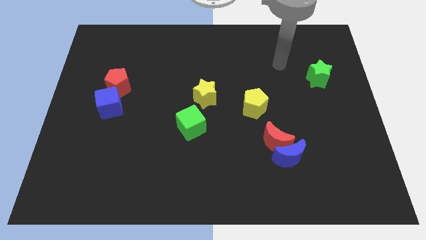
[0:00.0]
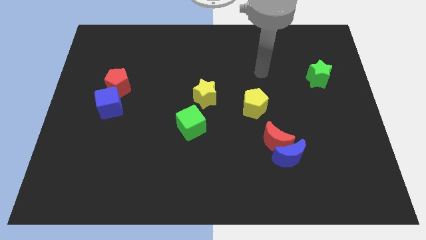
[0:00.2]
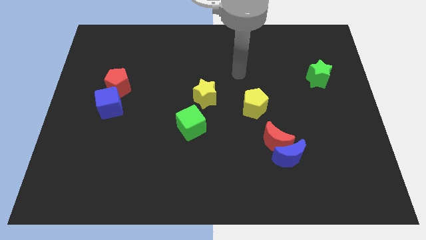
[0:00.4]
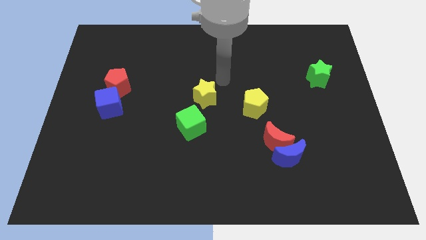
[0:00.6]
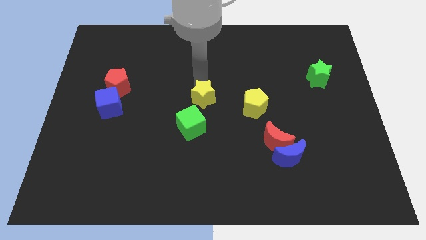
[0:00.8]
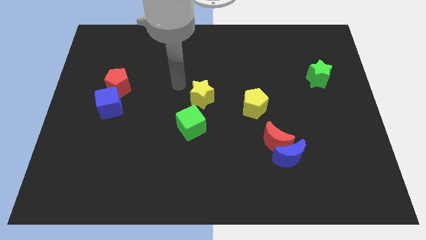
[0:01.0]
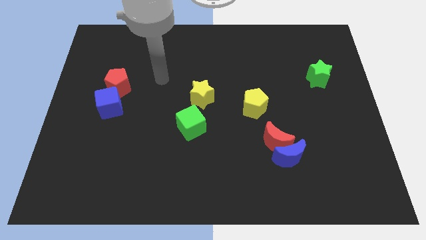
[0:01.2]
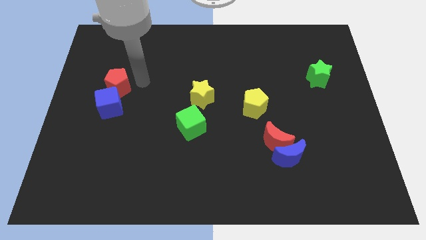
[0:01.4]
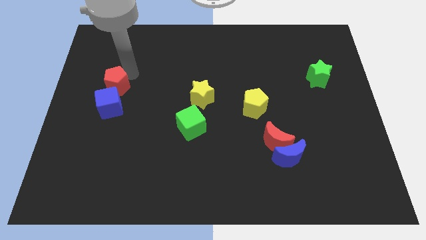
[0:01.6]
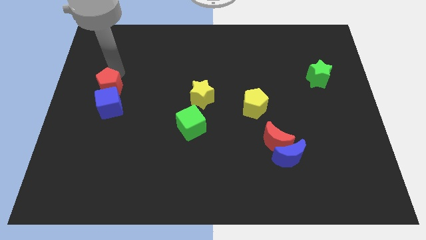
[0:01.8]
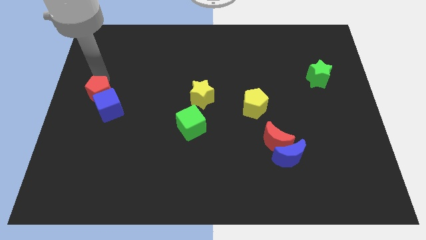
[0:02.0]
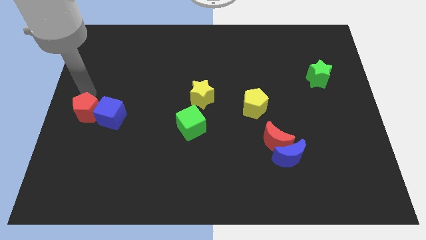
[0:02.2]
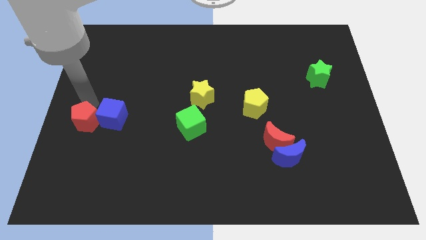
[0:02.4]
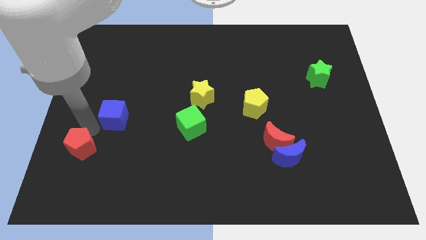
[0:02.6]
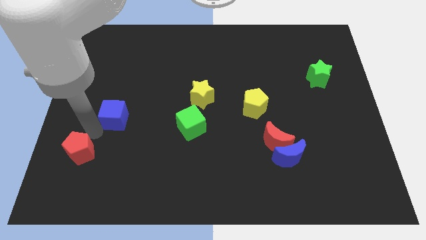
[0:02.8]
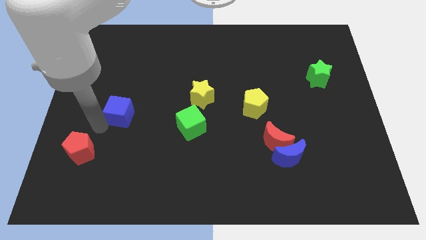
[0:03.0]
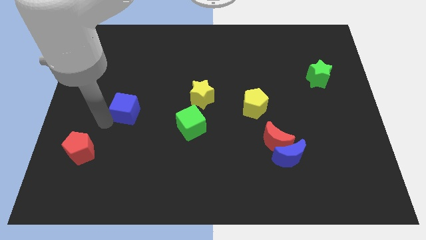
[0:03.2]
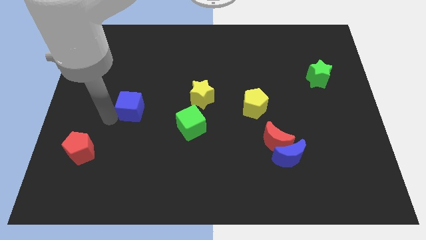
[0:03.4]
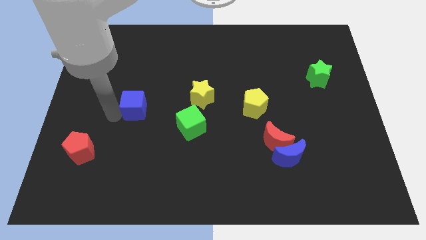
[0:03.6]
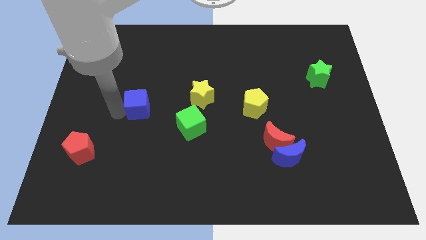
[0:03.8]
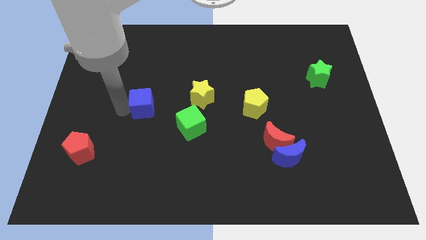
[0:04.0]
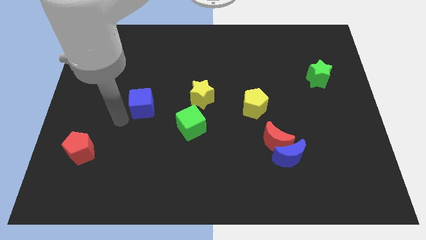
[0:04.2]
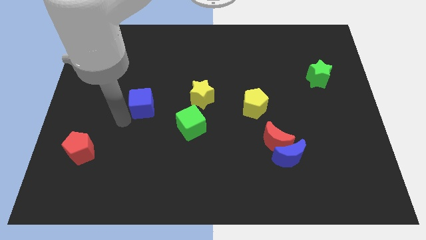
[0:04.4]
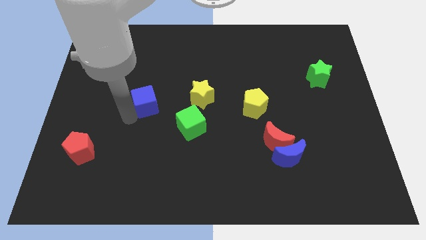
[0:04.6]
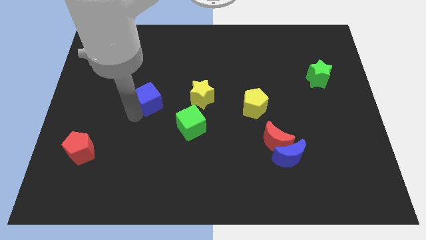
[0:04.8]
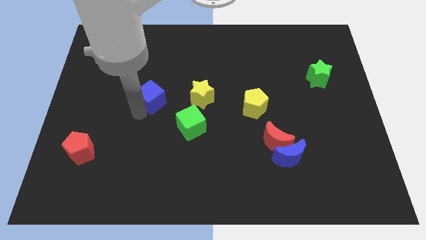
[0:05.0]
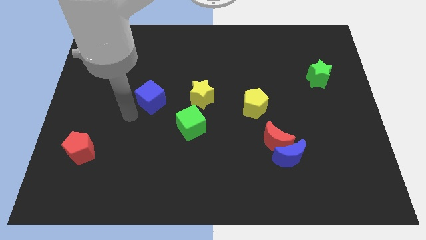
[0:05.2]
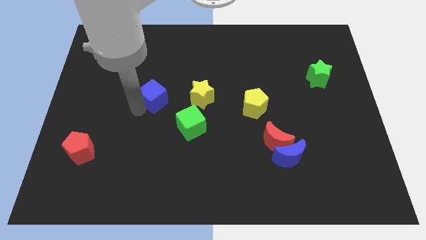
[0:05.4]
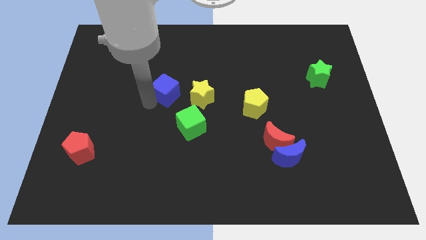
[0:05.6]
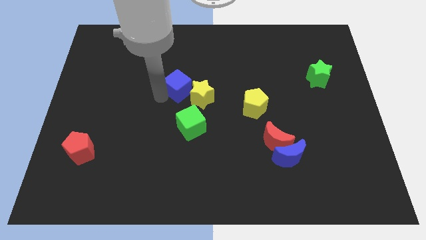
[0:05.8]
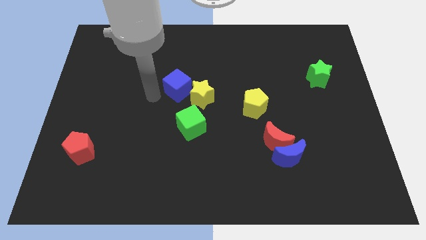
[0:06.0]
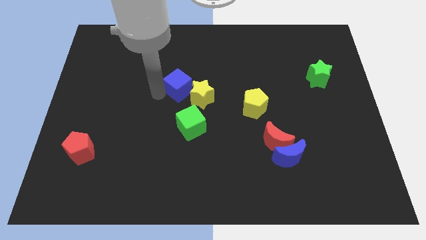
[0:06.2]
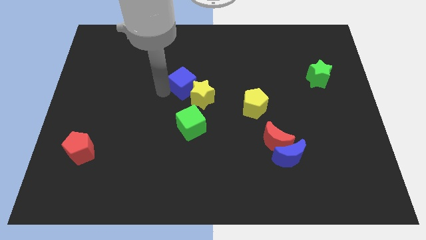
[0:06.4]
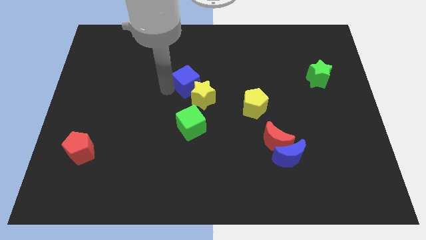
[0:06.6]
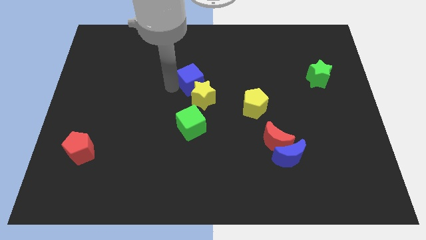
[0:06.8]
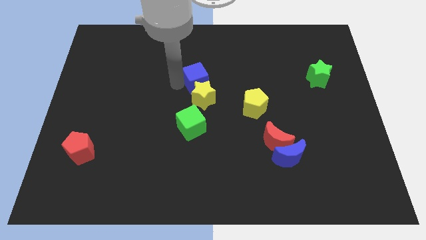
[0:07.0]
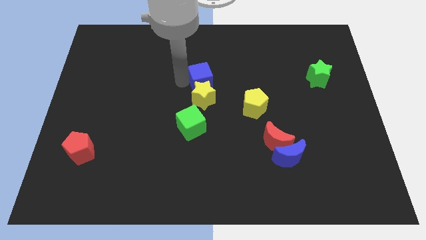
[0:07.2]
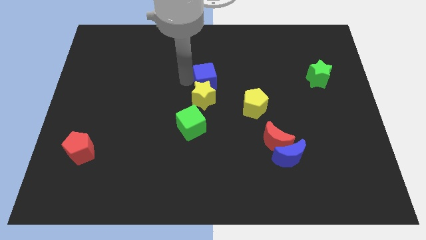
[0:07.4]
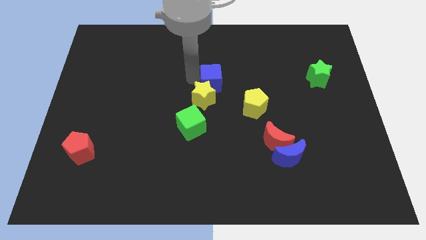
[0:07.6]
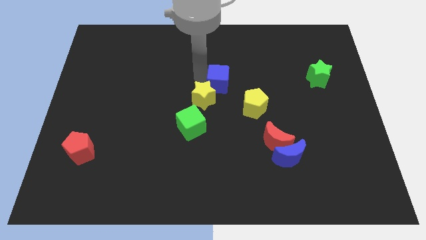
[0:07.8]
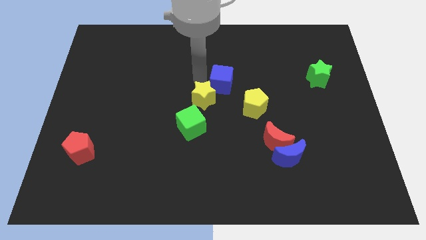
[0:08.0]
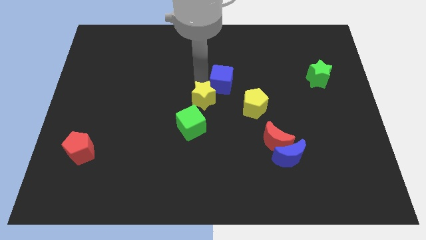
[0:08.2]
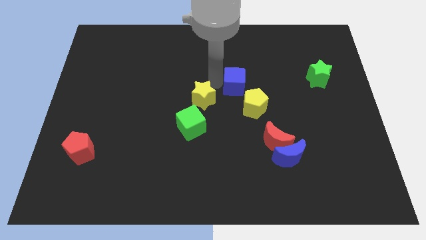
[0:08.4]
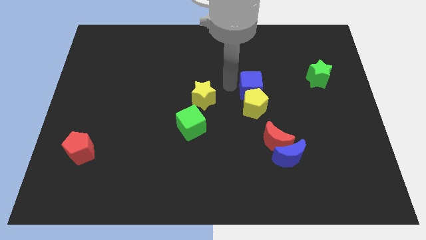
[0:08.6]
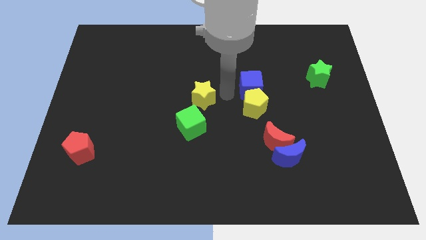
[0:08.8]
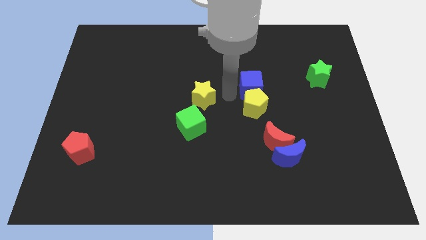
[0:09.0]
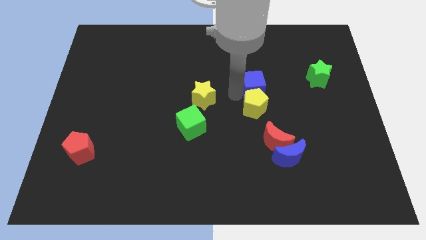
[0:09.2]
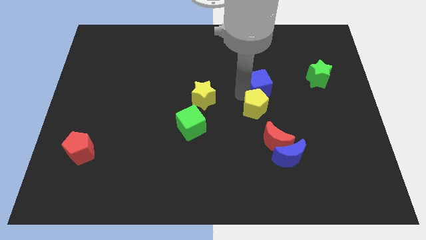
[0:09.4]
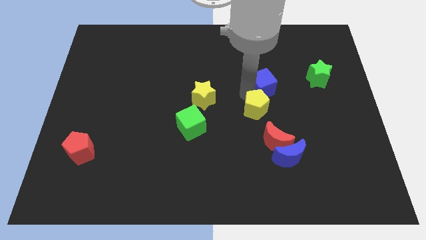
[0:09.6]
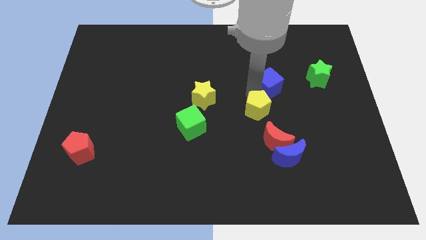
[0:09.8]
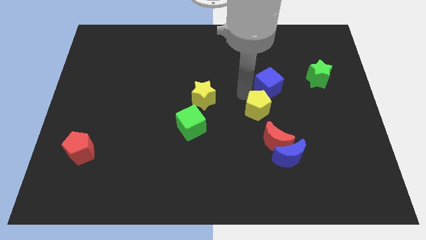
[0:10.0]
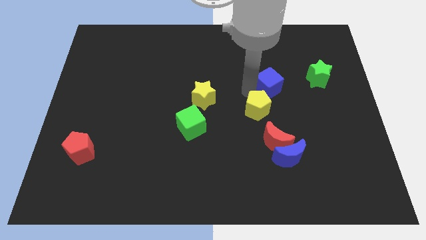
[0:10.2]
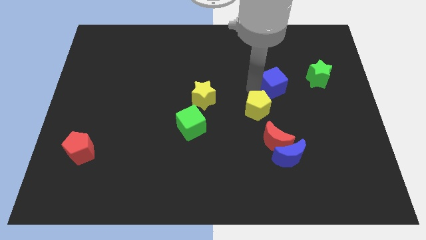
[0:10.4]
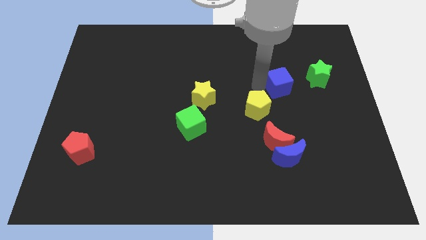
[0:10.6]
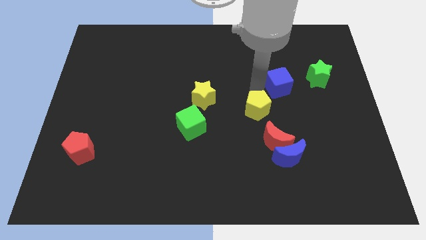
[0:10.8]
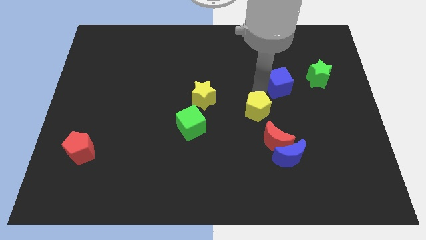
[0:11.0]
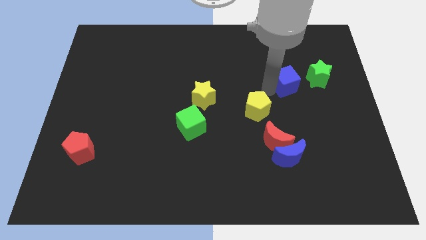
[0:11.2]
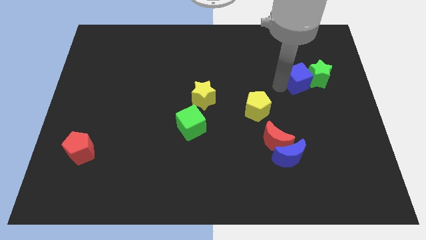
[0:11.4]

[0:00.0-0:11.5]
slide the blue cube to the green star
